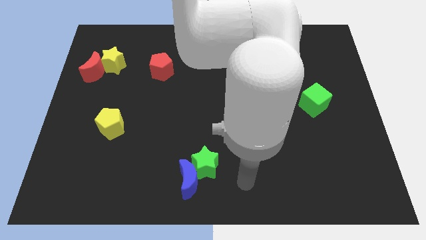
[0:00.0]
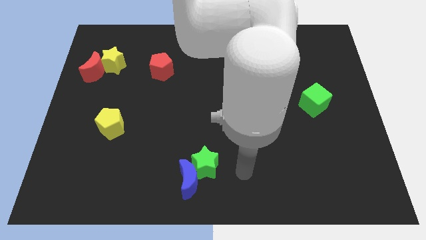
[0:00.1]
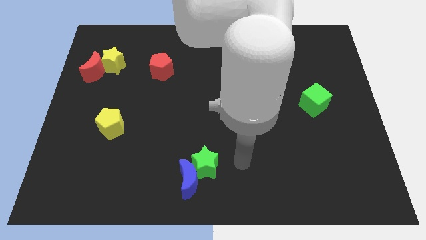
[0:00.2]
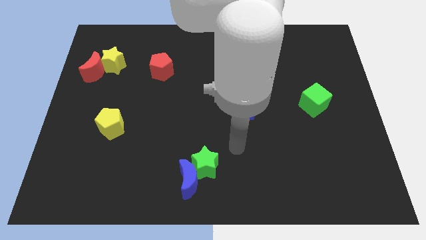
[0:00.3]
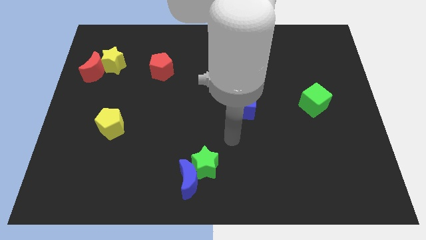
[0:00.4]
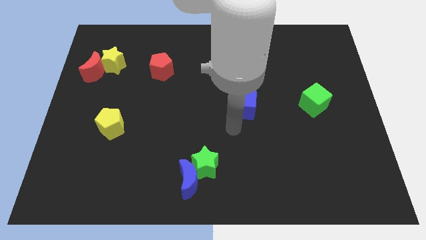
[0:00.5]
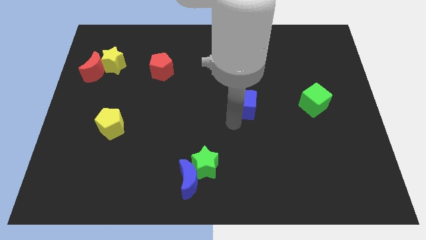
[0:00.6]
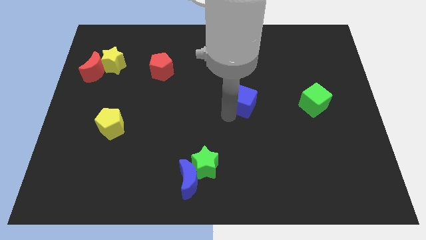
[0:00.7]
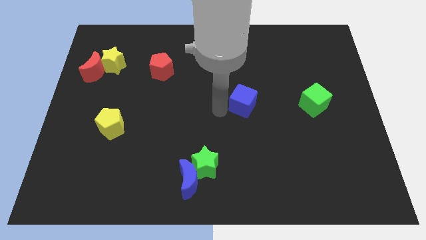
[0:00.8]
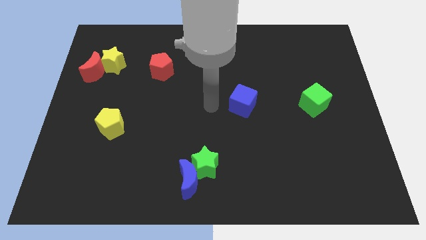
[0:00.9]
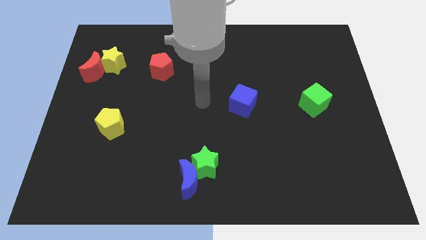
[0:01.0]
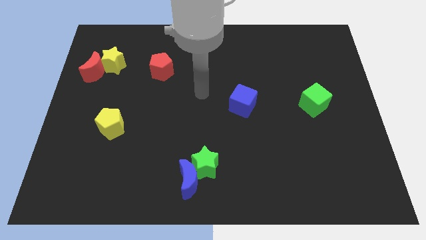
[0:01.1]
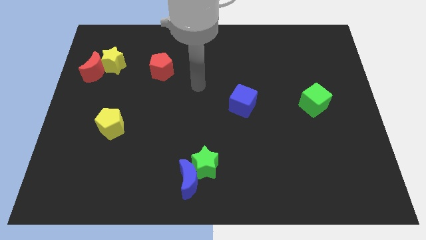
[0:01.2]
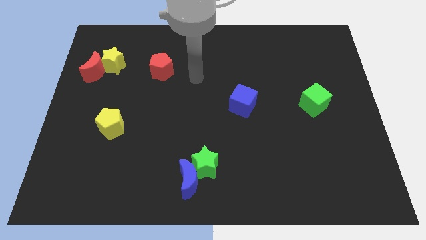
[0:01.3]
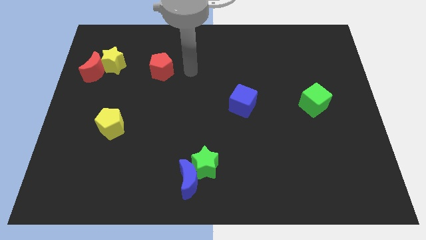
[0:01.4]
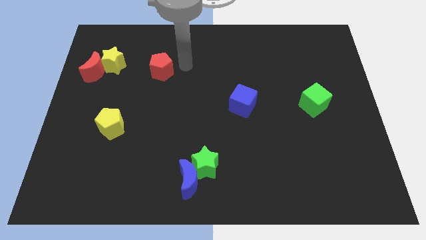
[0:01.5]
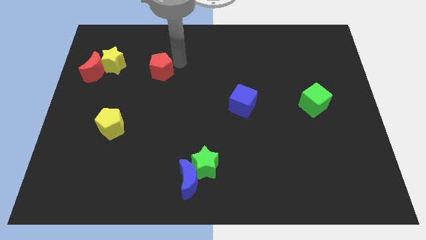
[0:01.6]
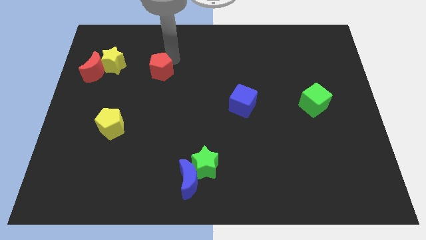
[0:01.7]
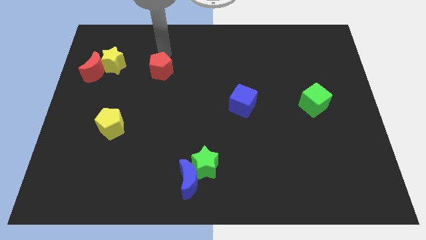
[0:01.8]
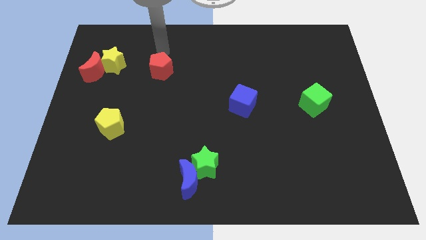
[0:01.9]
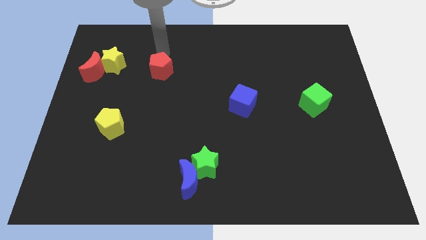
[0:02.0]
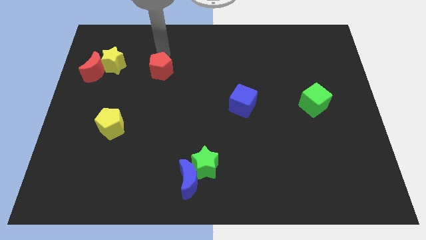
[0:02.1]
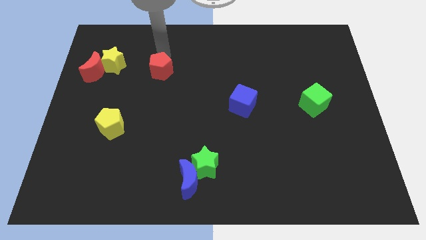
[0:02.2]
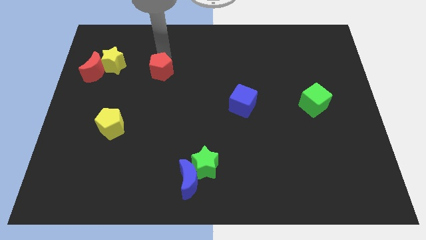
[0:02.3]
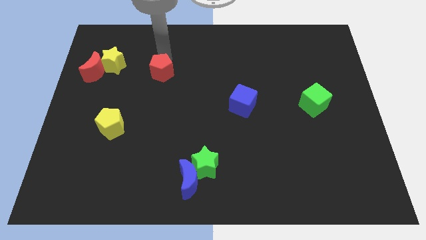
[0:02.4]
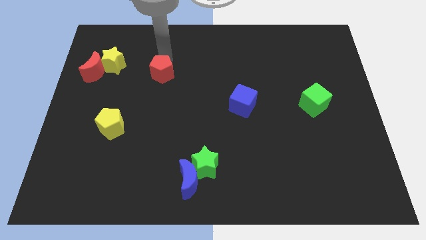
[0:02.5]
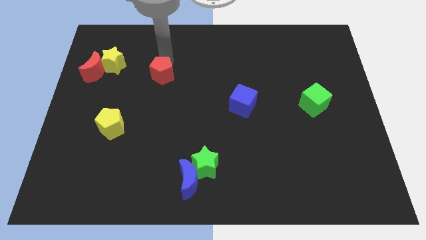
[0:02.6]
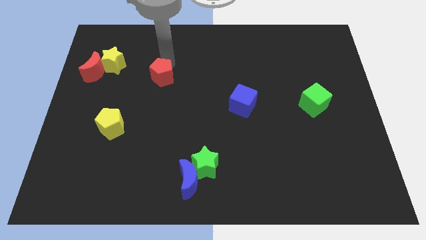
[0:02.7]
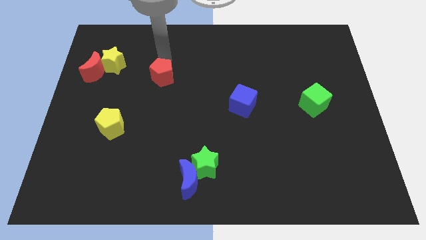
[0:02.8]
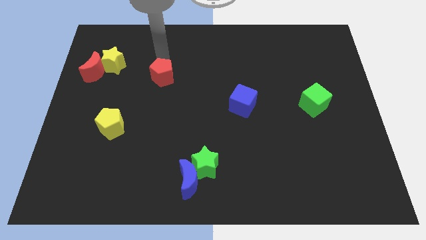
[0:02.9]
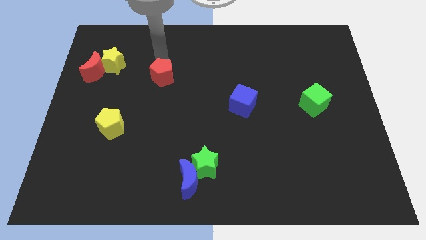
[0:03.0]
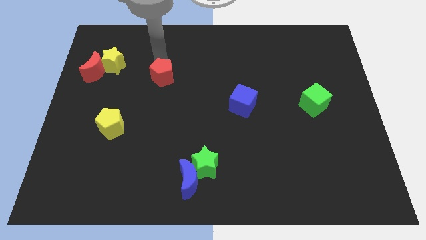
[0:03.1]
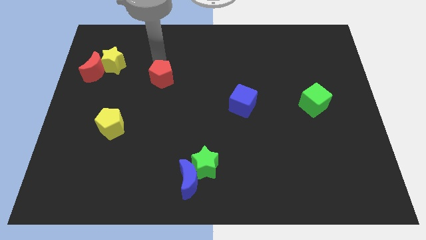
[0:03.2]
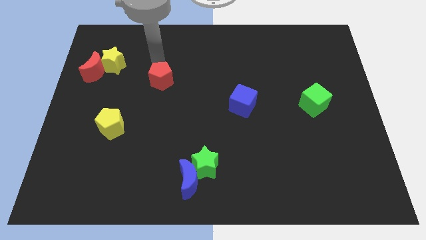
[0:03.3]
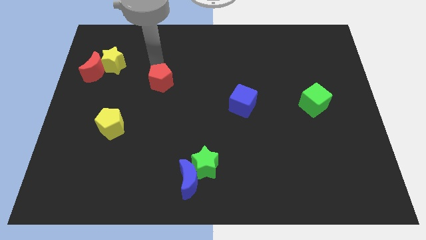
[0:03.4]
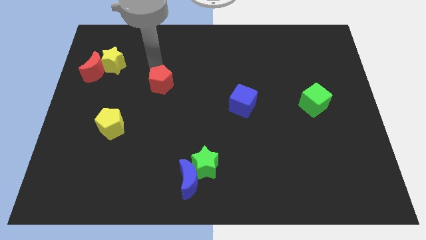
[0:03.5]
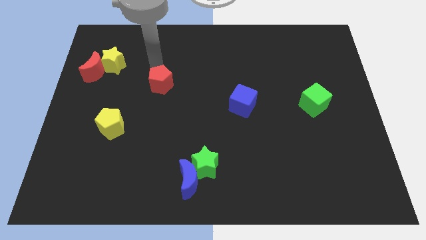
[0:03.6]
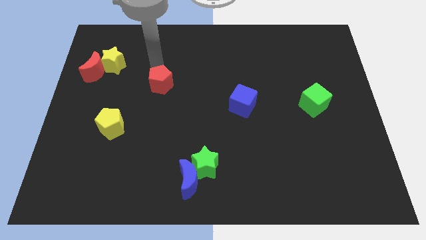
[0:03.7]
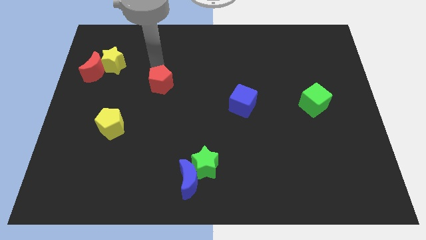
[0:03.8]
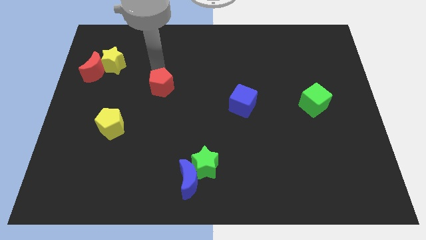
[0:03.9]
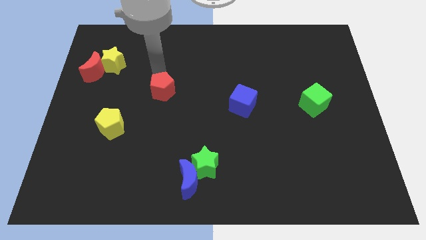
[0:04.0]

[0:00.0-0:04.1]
slide the red pentagon down somewhat

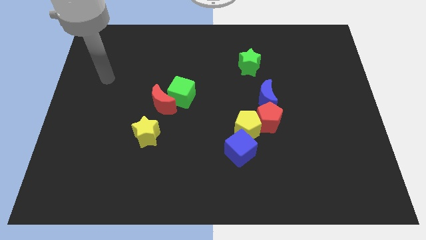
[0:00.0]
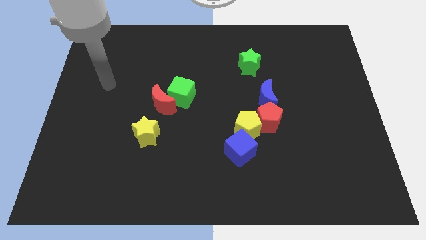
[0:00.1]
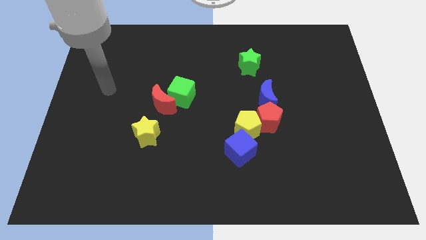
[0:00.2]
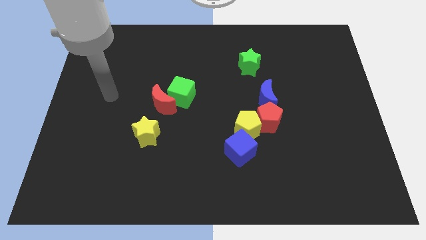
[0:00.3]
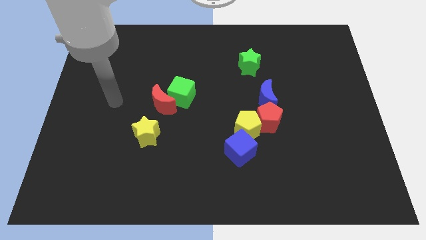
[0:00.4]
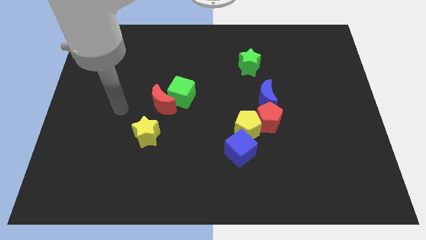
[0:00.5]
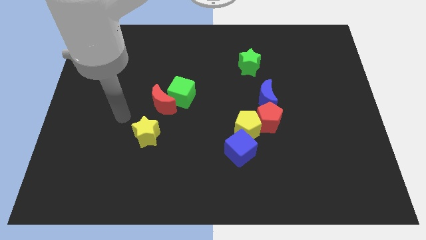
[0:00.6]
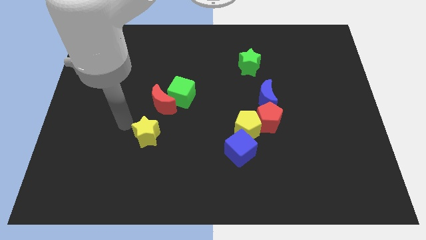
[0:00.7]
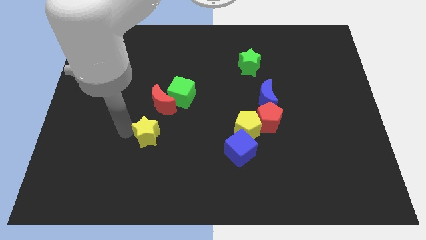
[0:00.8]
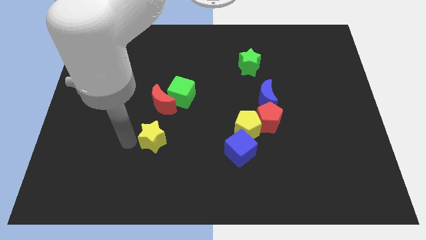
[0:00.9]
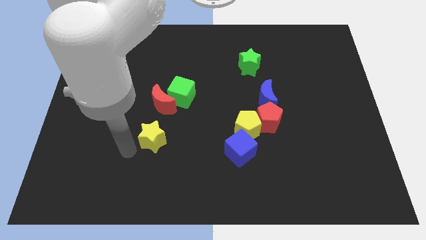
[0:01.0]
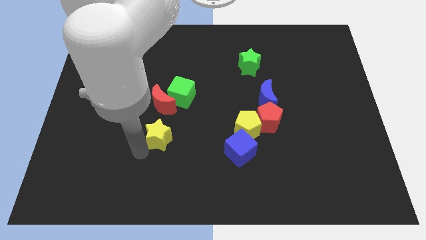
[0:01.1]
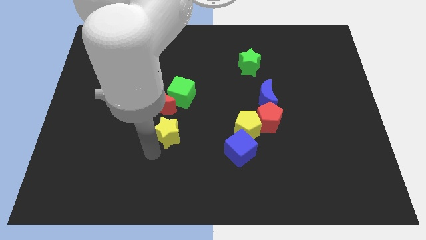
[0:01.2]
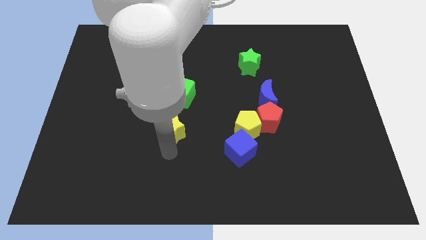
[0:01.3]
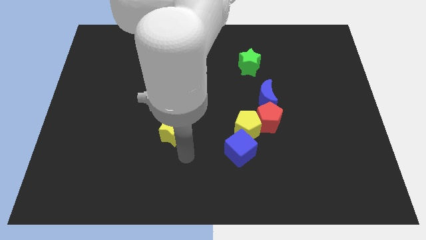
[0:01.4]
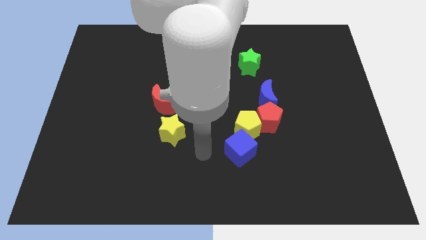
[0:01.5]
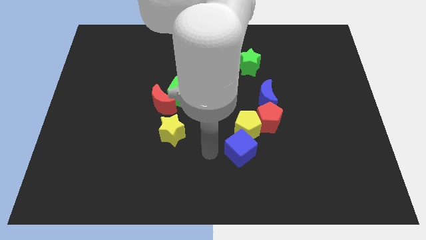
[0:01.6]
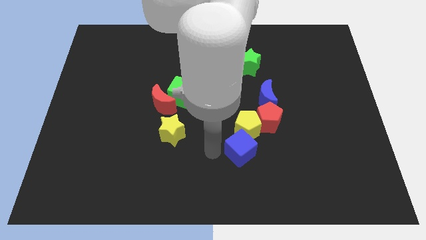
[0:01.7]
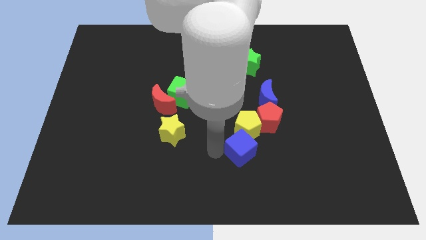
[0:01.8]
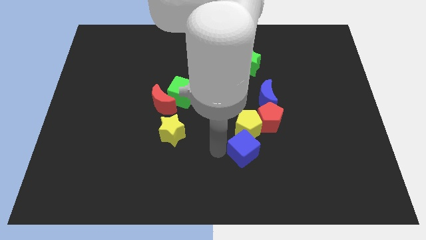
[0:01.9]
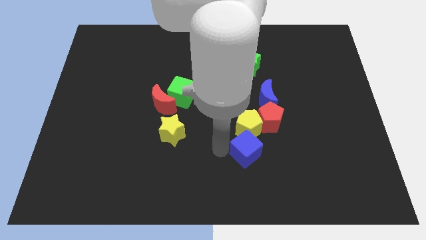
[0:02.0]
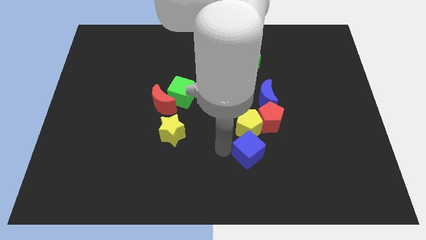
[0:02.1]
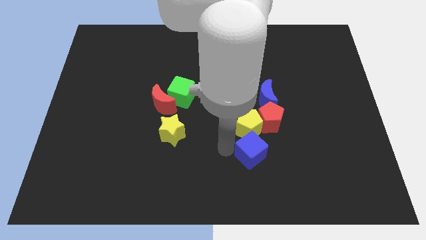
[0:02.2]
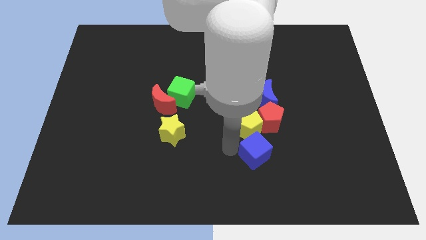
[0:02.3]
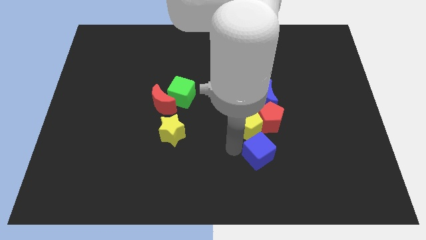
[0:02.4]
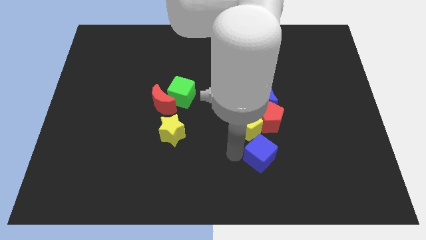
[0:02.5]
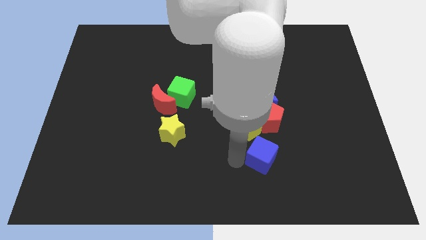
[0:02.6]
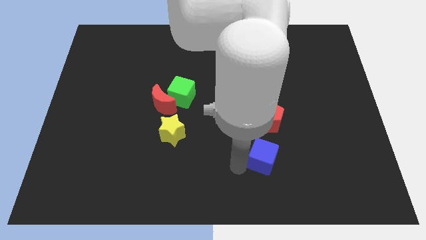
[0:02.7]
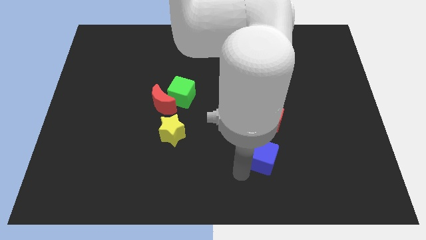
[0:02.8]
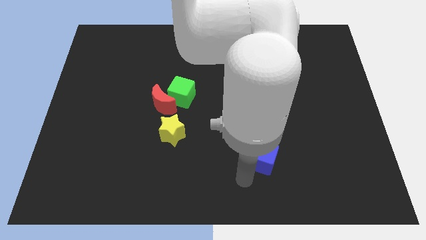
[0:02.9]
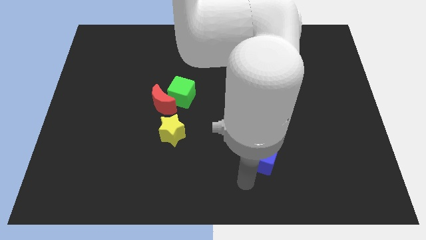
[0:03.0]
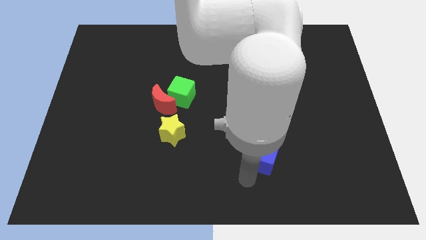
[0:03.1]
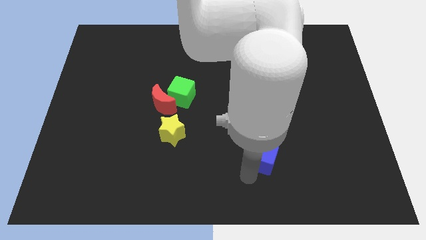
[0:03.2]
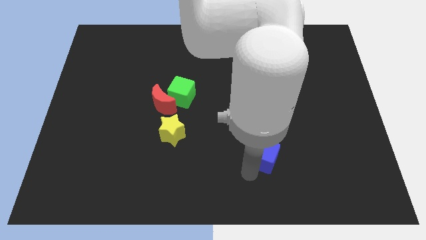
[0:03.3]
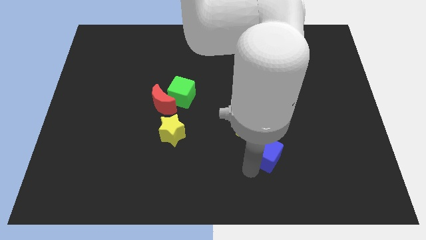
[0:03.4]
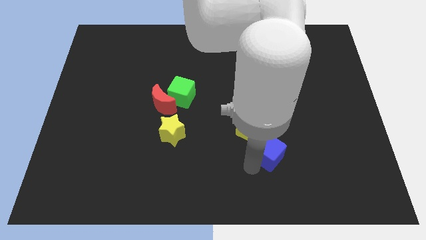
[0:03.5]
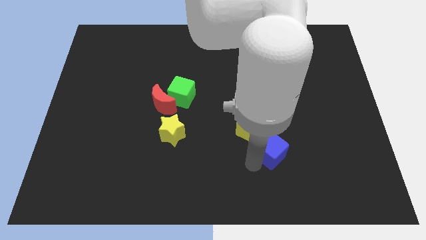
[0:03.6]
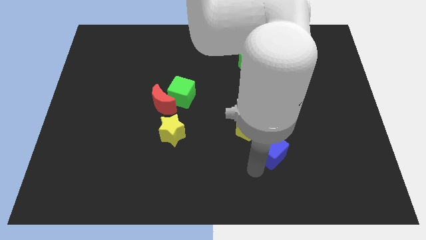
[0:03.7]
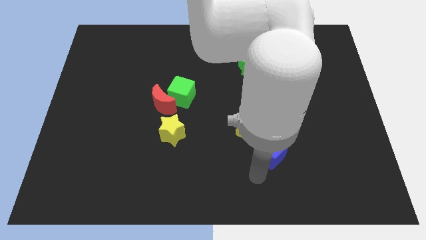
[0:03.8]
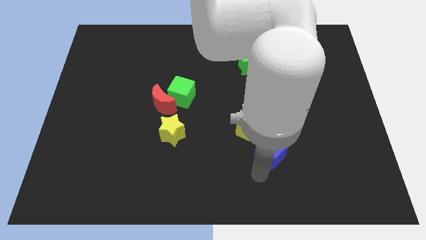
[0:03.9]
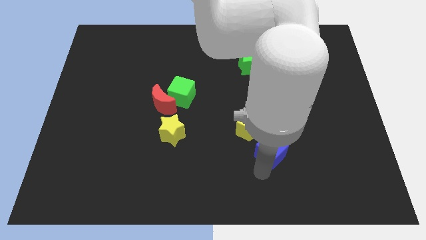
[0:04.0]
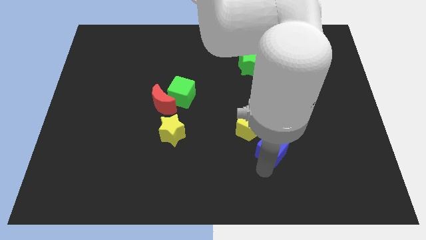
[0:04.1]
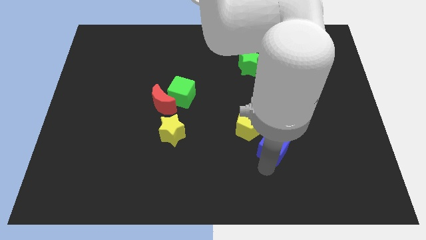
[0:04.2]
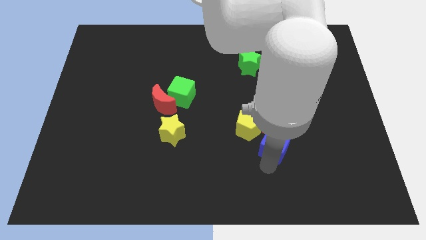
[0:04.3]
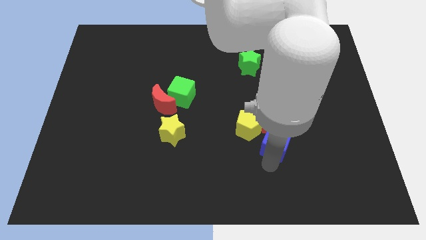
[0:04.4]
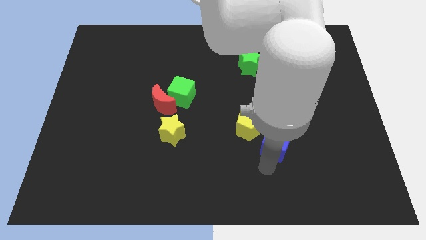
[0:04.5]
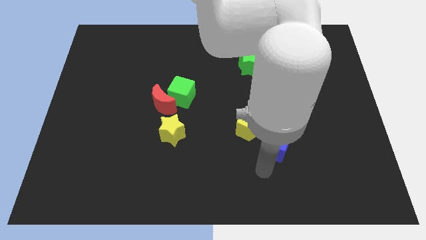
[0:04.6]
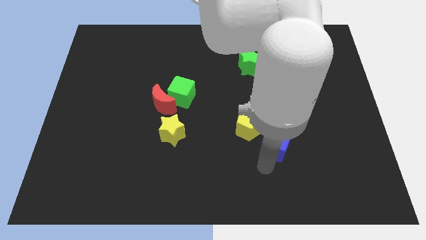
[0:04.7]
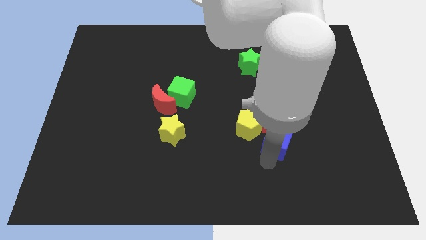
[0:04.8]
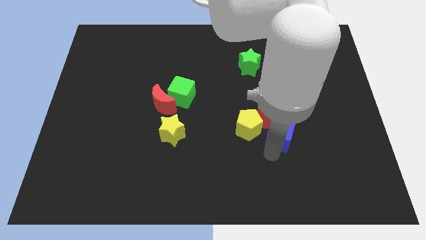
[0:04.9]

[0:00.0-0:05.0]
slide the blue cube a little bit upwards and to the right diagonally
